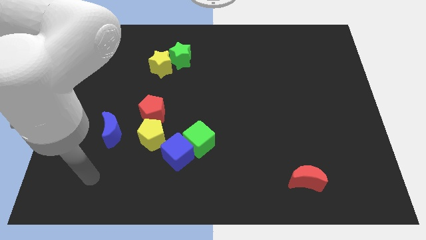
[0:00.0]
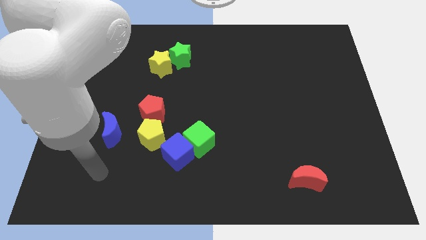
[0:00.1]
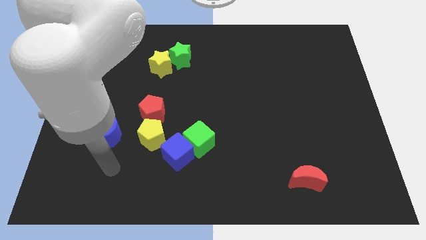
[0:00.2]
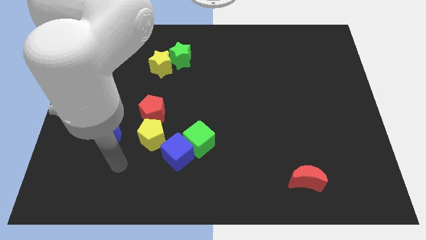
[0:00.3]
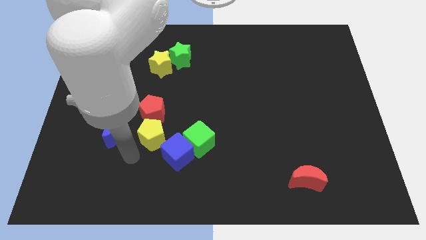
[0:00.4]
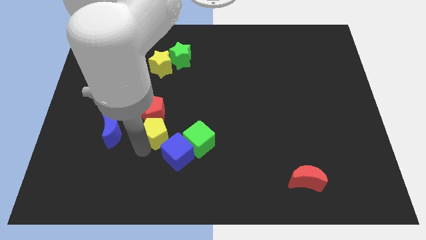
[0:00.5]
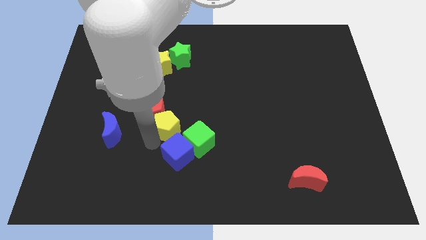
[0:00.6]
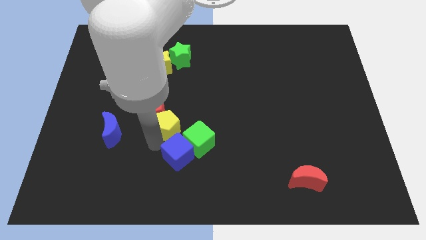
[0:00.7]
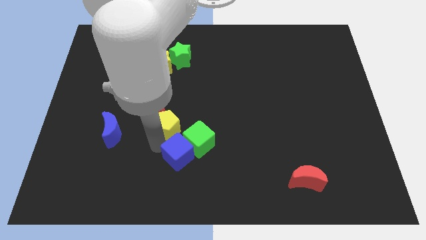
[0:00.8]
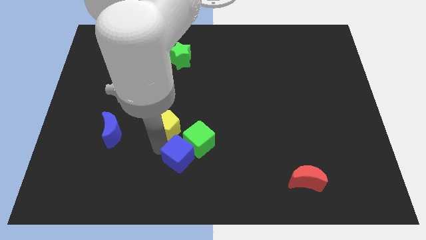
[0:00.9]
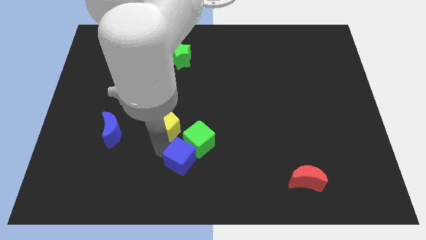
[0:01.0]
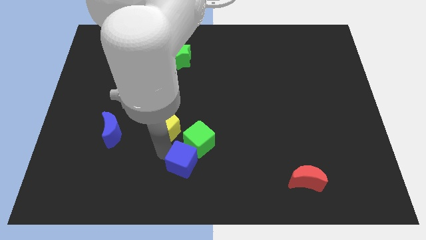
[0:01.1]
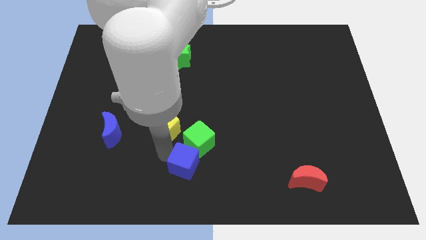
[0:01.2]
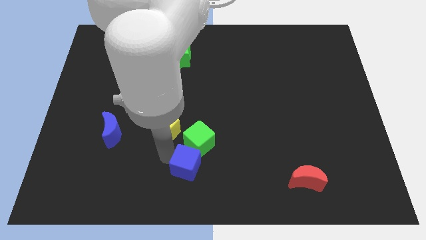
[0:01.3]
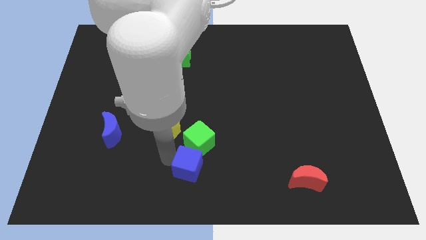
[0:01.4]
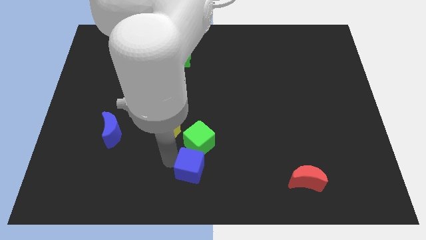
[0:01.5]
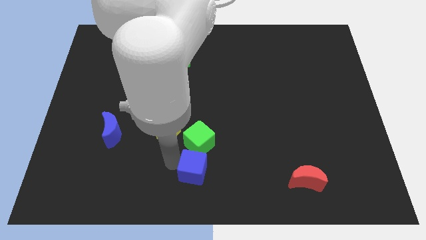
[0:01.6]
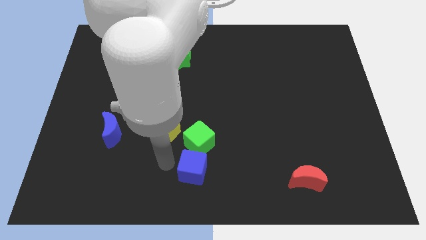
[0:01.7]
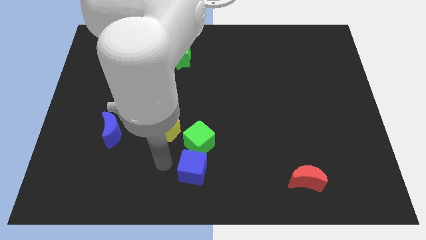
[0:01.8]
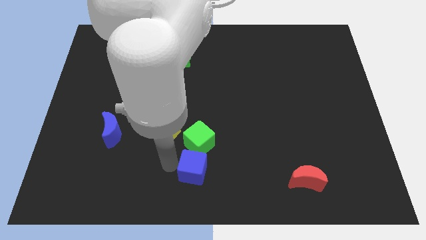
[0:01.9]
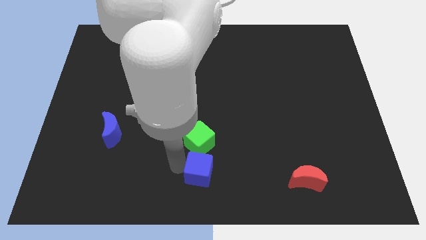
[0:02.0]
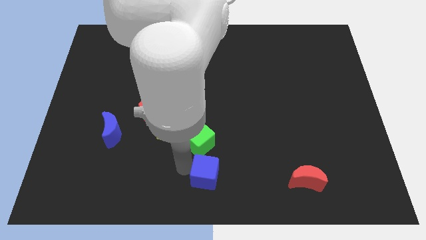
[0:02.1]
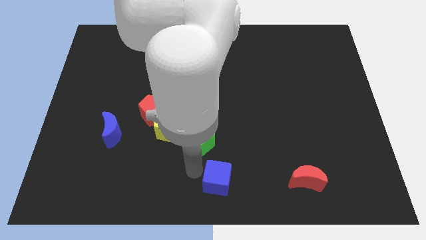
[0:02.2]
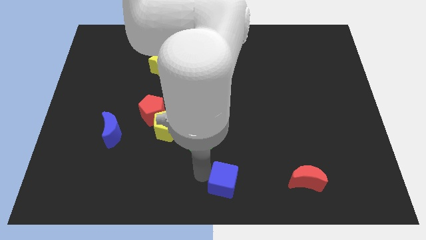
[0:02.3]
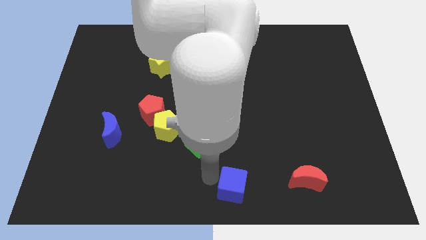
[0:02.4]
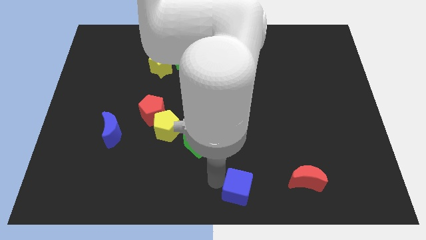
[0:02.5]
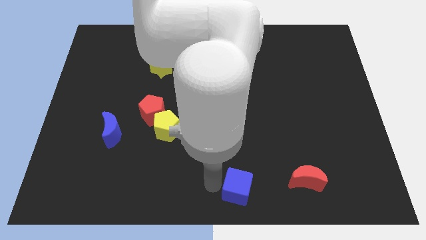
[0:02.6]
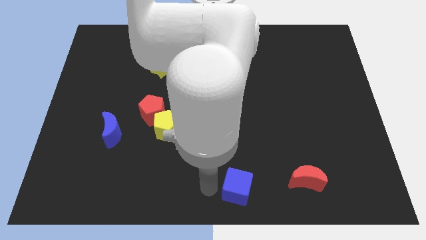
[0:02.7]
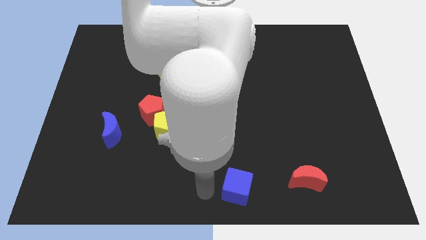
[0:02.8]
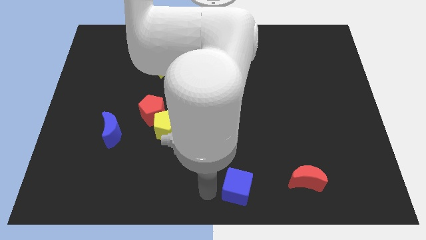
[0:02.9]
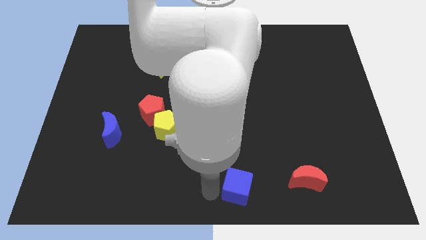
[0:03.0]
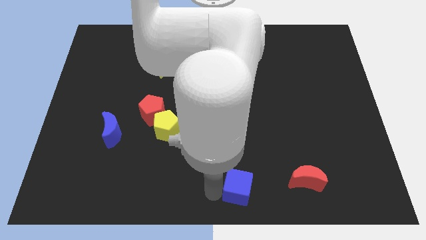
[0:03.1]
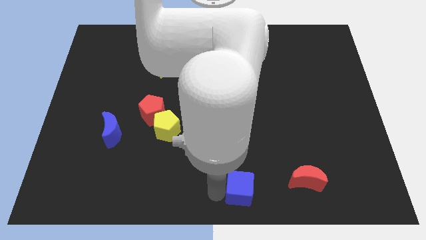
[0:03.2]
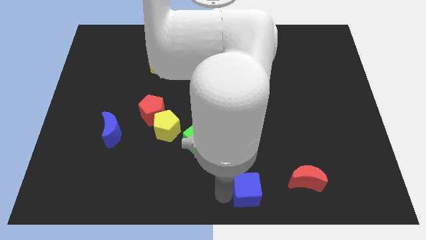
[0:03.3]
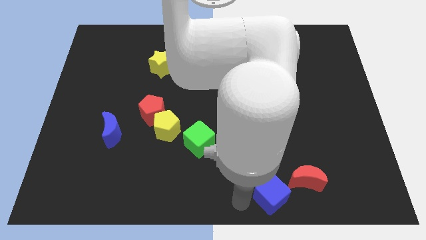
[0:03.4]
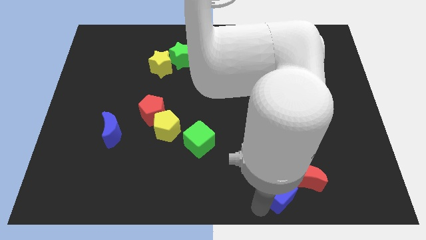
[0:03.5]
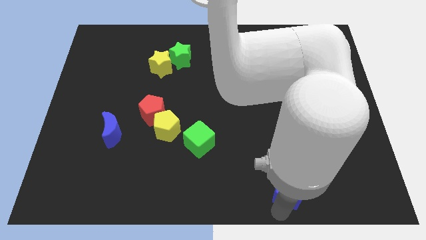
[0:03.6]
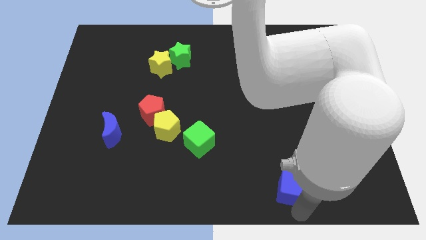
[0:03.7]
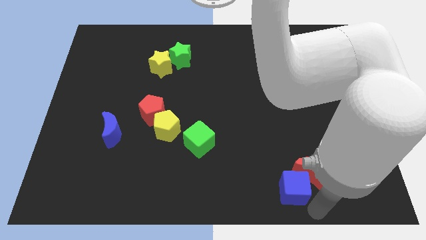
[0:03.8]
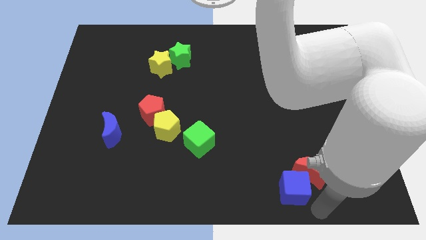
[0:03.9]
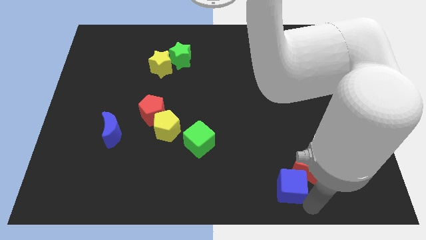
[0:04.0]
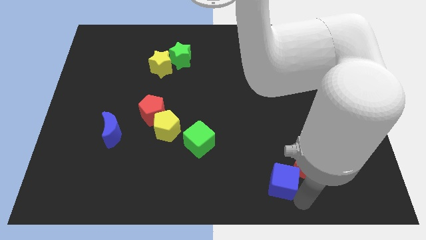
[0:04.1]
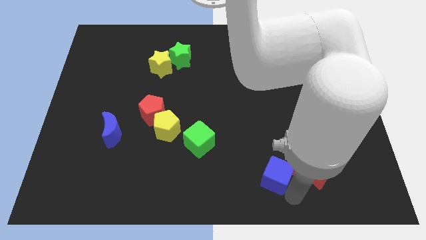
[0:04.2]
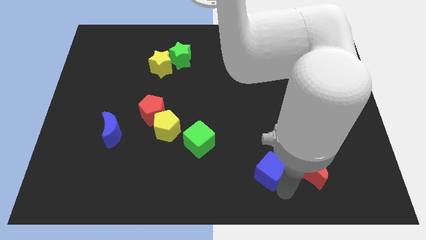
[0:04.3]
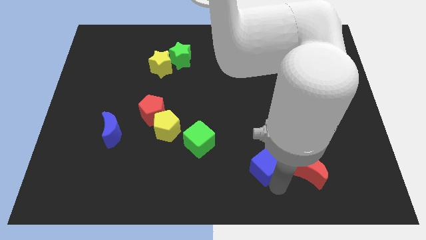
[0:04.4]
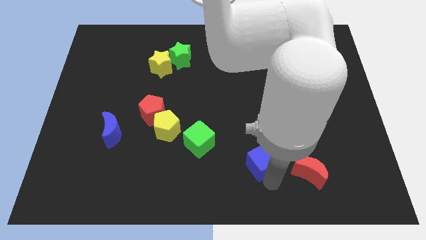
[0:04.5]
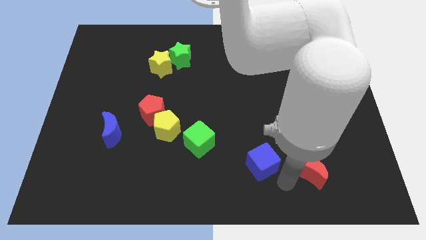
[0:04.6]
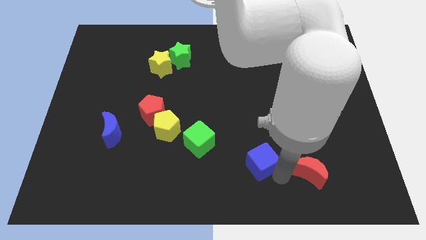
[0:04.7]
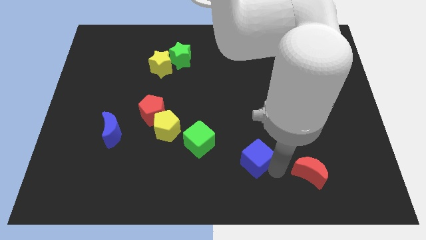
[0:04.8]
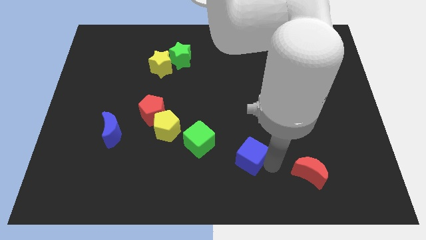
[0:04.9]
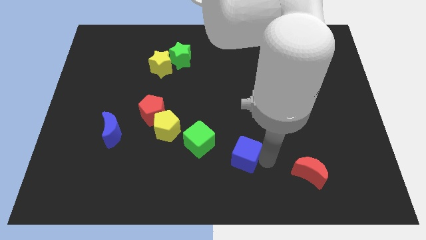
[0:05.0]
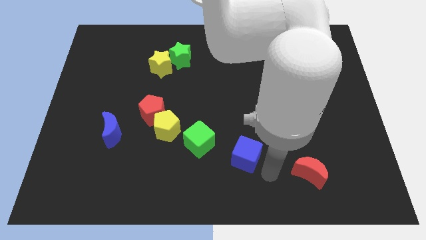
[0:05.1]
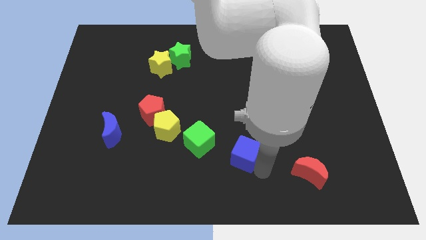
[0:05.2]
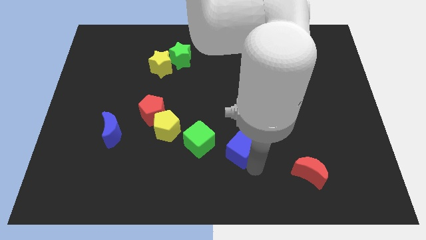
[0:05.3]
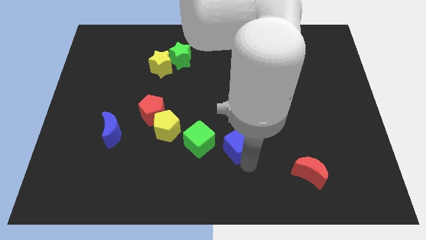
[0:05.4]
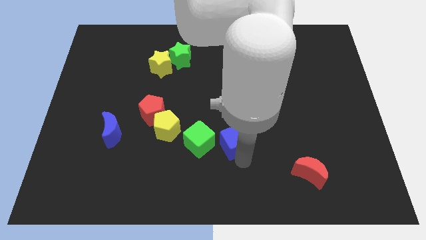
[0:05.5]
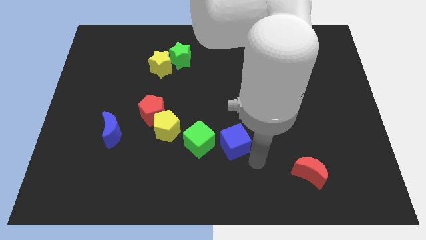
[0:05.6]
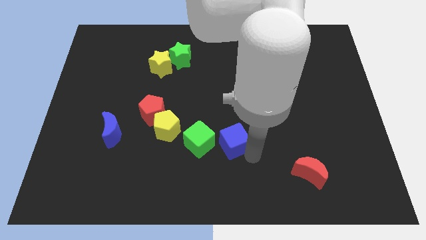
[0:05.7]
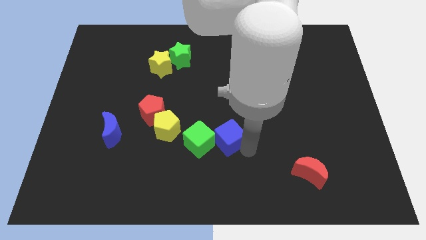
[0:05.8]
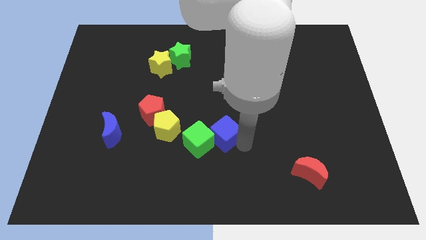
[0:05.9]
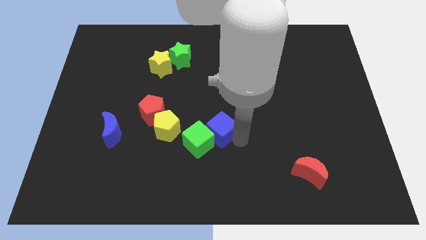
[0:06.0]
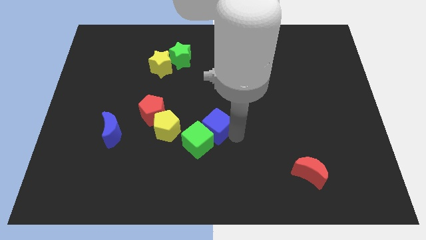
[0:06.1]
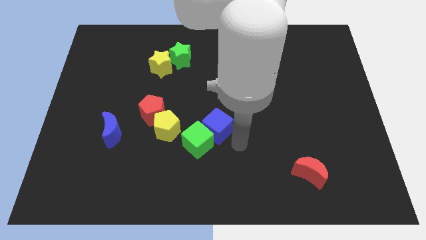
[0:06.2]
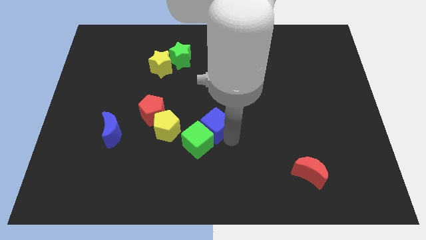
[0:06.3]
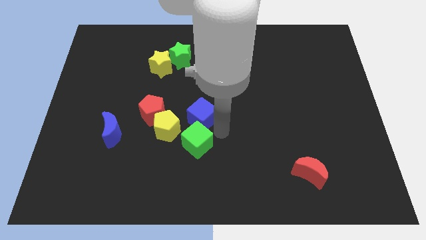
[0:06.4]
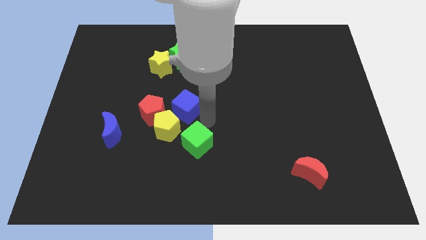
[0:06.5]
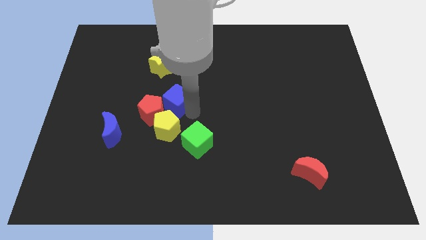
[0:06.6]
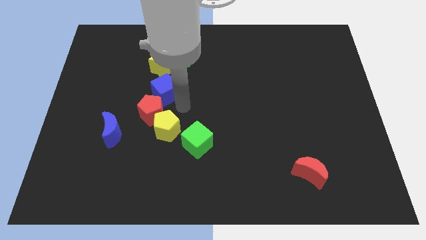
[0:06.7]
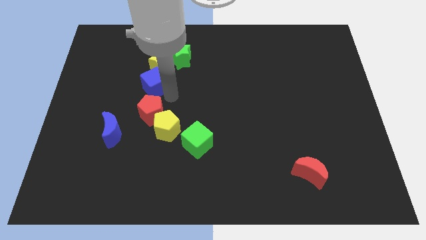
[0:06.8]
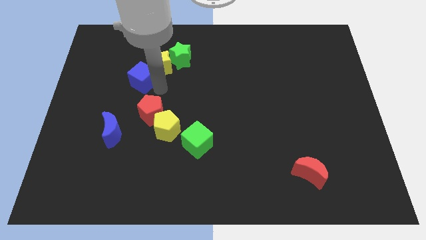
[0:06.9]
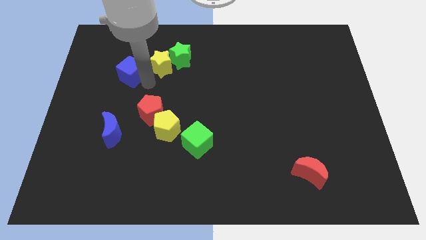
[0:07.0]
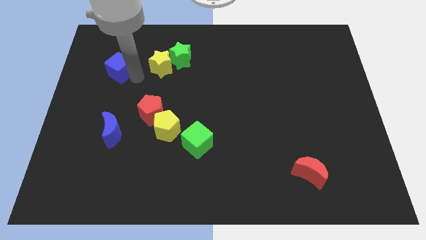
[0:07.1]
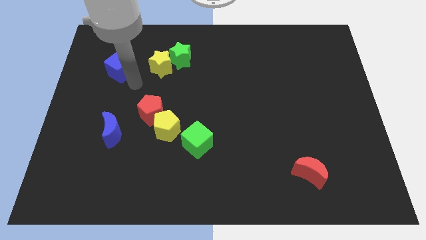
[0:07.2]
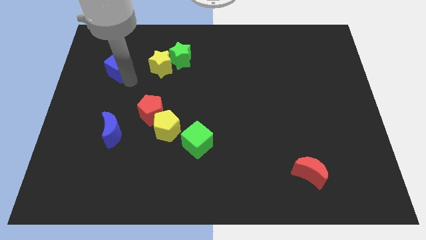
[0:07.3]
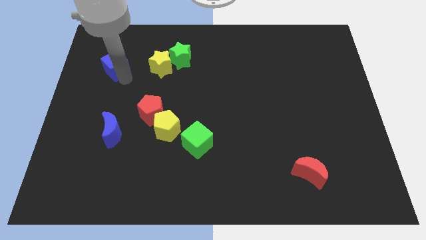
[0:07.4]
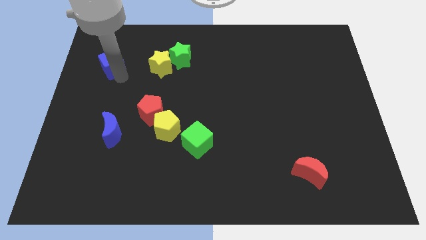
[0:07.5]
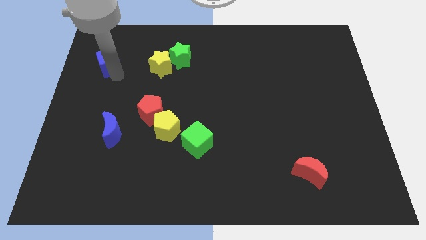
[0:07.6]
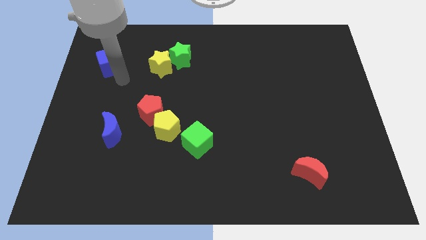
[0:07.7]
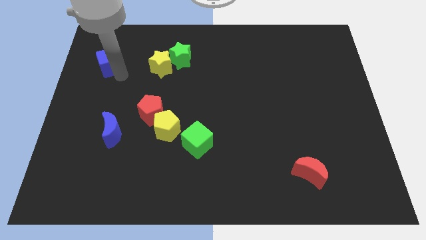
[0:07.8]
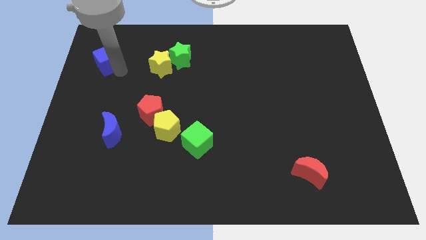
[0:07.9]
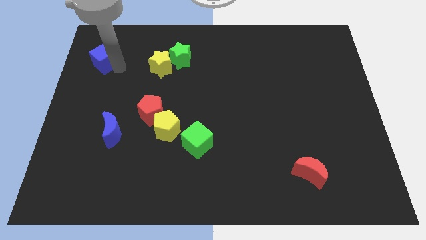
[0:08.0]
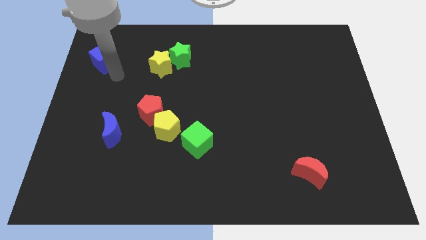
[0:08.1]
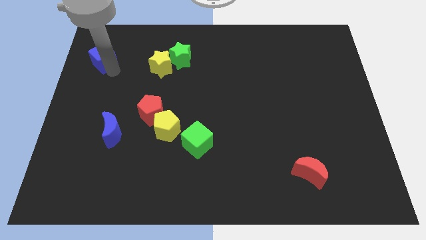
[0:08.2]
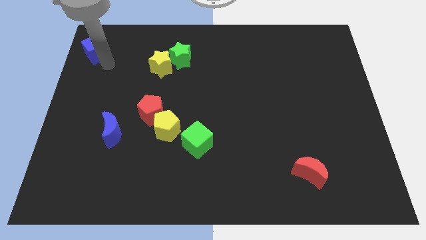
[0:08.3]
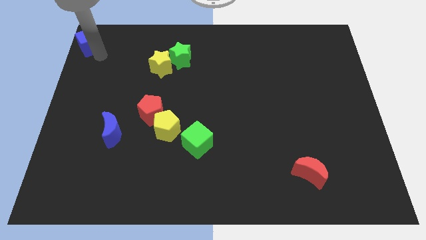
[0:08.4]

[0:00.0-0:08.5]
push the blue cube to the top left corner
